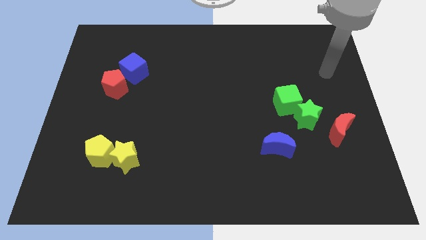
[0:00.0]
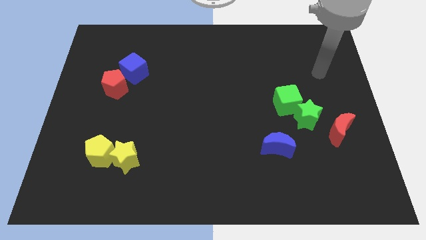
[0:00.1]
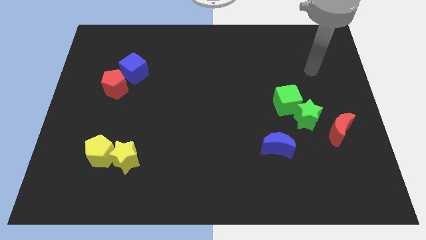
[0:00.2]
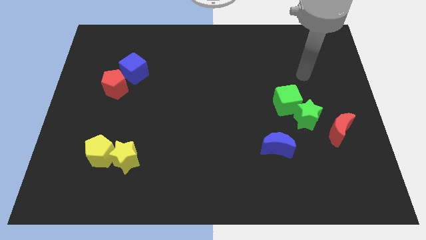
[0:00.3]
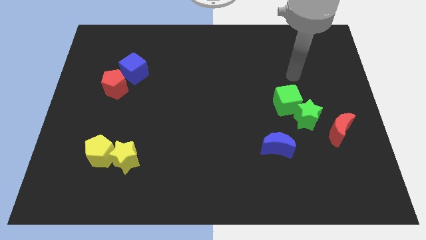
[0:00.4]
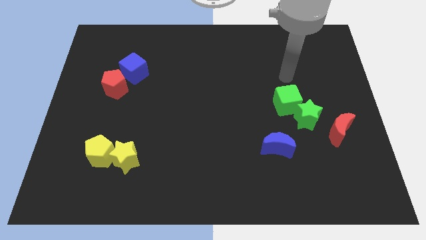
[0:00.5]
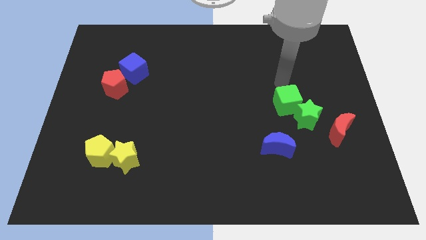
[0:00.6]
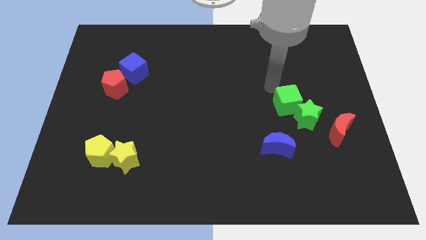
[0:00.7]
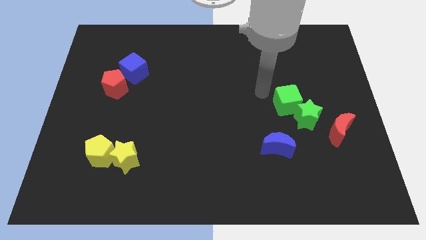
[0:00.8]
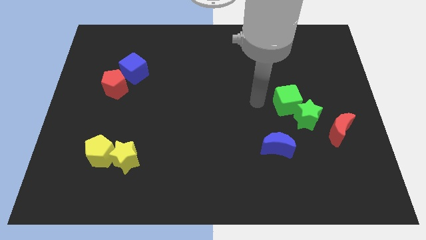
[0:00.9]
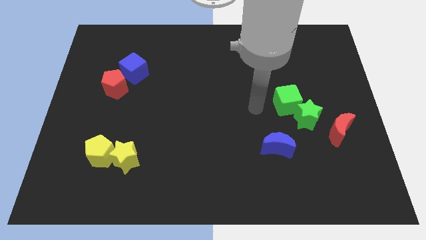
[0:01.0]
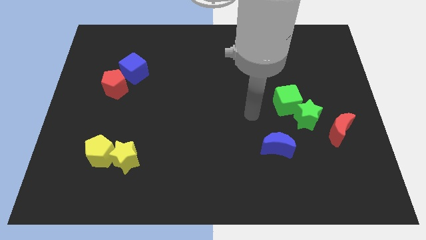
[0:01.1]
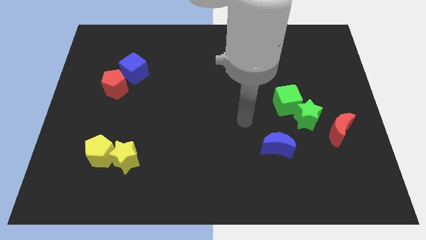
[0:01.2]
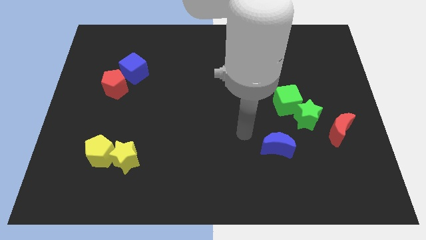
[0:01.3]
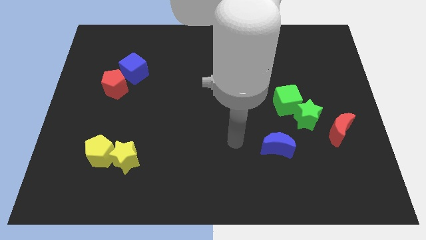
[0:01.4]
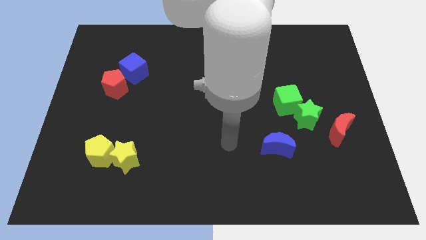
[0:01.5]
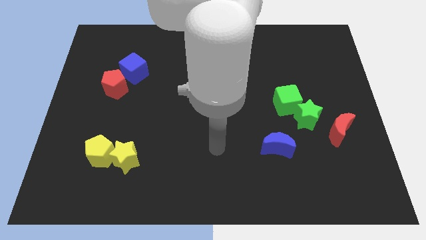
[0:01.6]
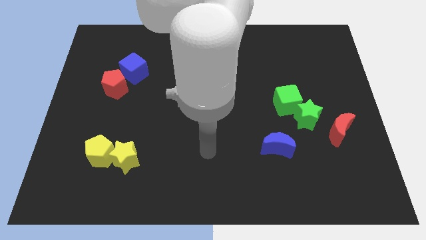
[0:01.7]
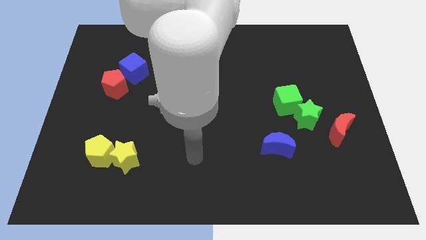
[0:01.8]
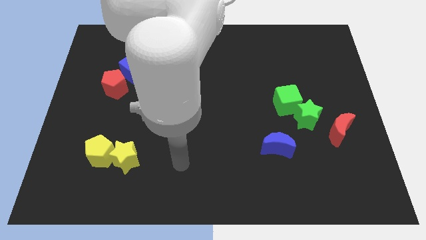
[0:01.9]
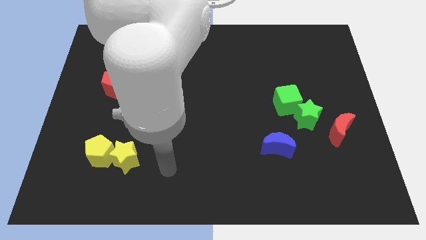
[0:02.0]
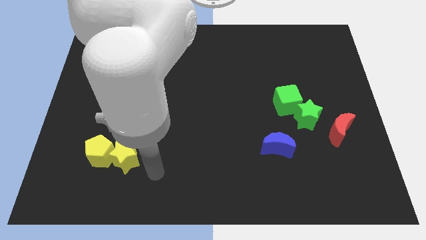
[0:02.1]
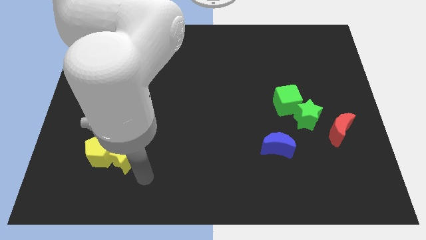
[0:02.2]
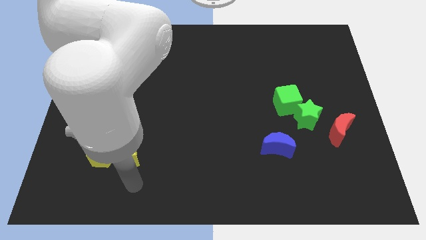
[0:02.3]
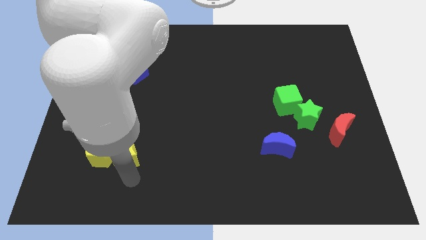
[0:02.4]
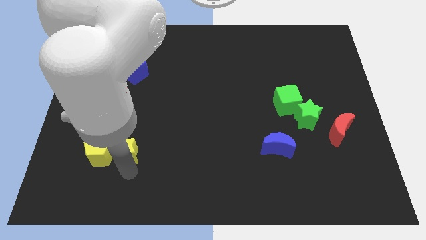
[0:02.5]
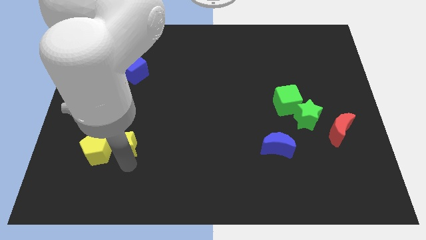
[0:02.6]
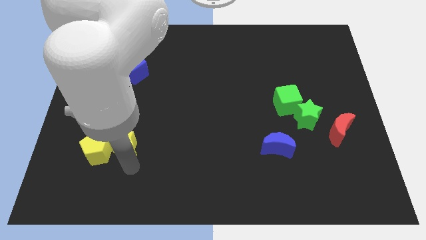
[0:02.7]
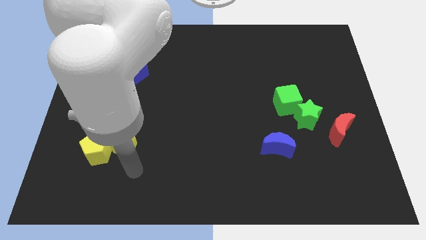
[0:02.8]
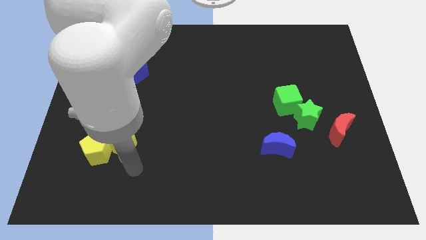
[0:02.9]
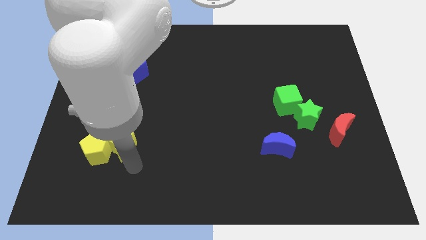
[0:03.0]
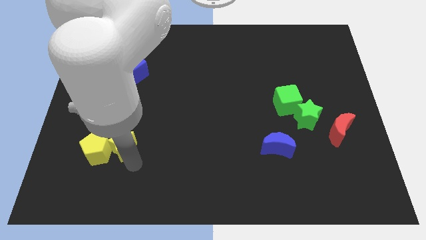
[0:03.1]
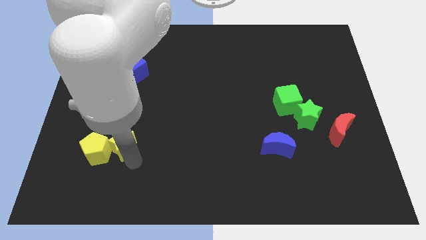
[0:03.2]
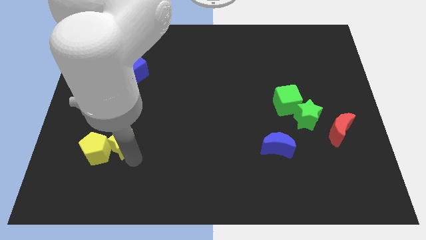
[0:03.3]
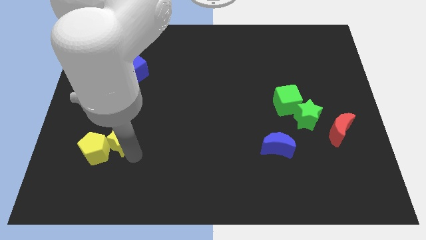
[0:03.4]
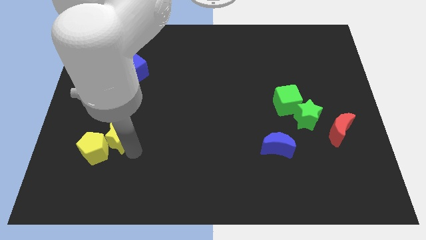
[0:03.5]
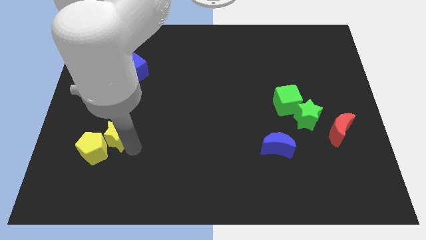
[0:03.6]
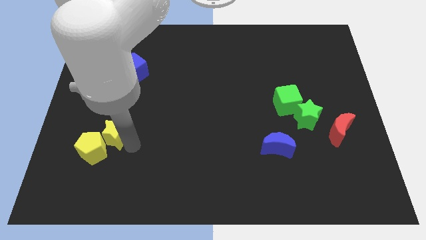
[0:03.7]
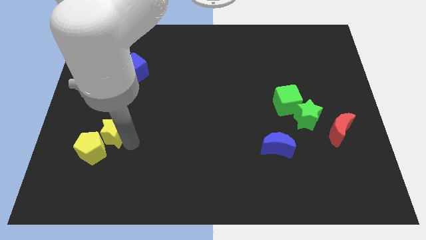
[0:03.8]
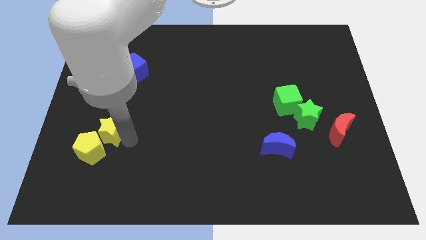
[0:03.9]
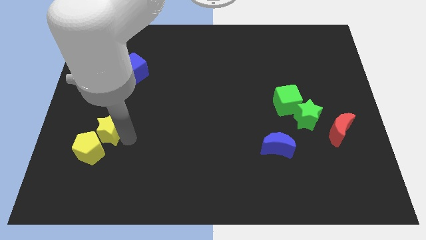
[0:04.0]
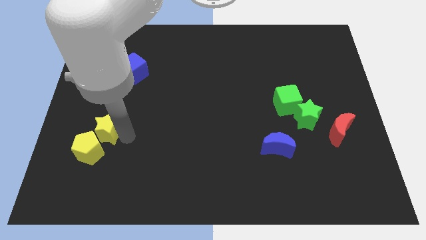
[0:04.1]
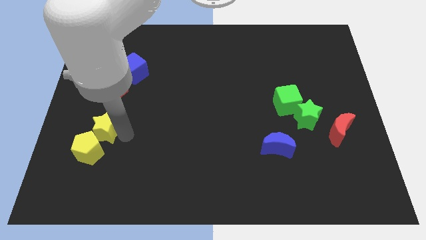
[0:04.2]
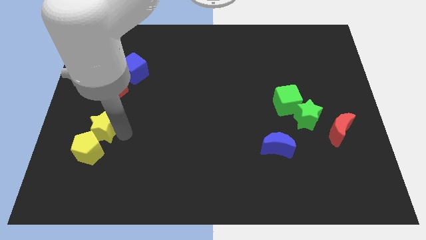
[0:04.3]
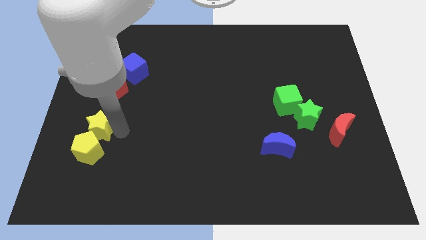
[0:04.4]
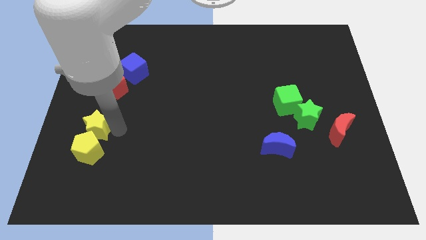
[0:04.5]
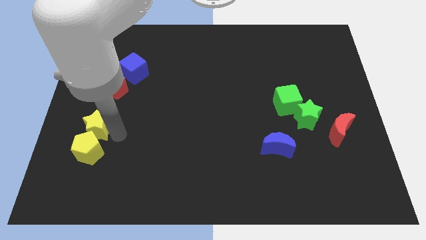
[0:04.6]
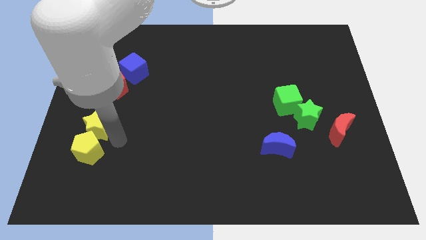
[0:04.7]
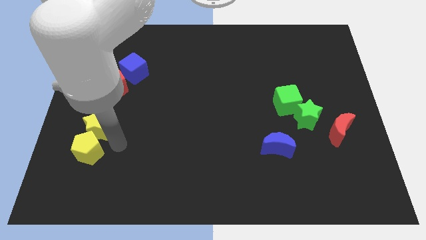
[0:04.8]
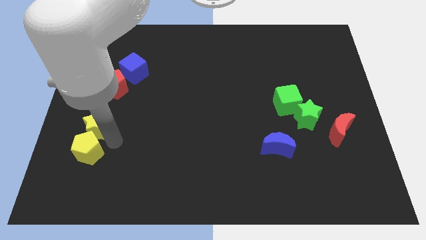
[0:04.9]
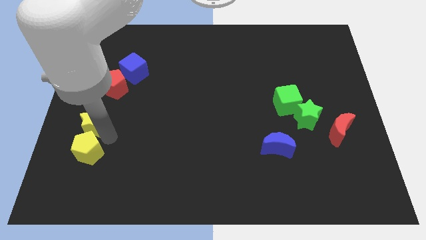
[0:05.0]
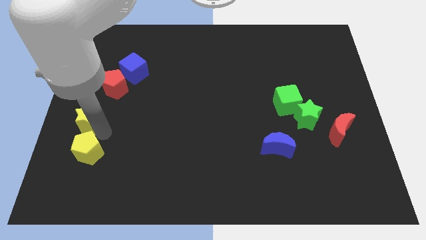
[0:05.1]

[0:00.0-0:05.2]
put the yellow star to the left side of the board

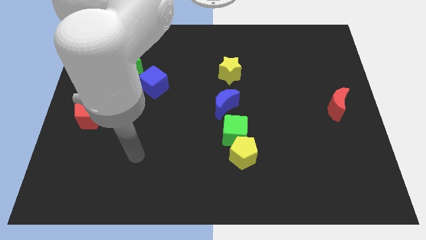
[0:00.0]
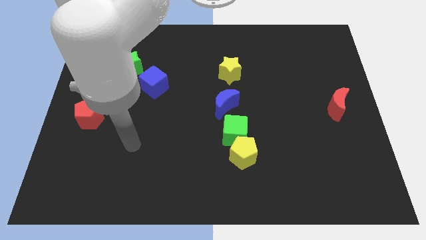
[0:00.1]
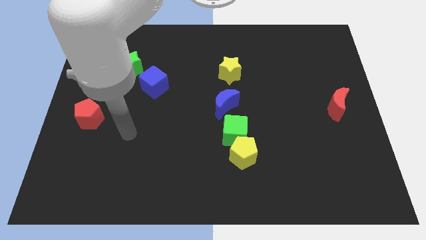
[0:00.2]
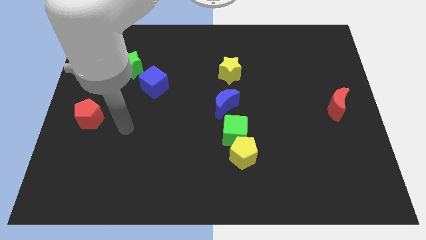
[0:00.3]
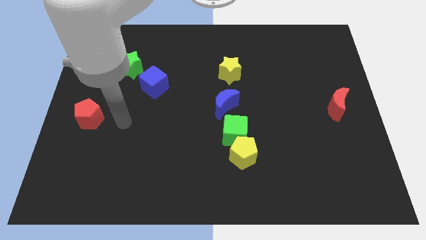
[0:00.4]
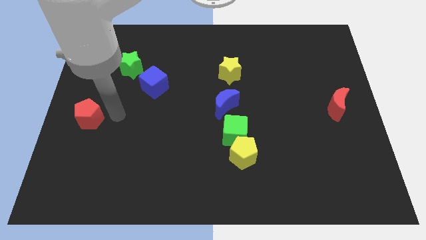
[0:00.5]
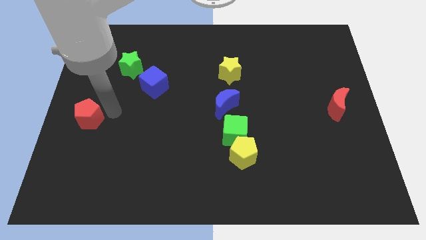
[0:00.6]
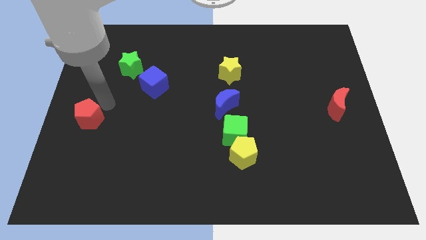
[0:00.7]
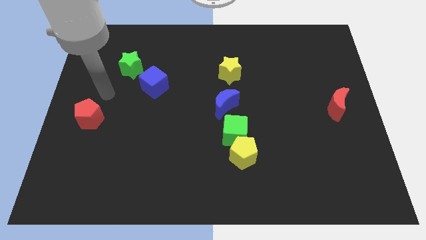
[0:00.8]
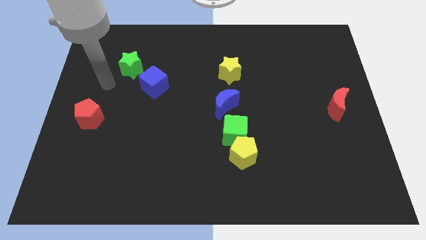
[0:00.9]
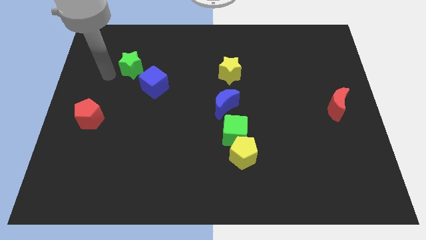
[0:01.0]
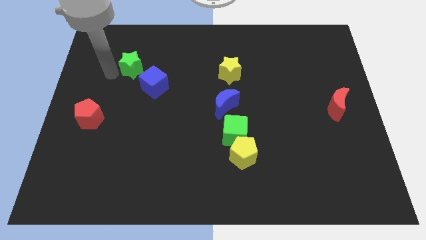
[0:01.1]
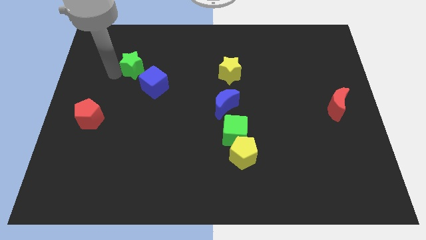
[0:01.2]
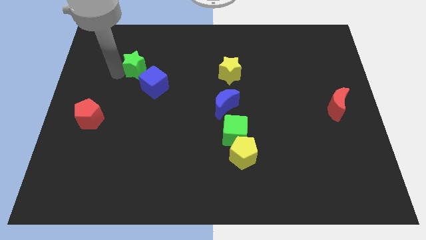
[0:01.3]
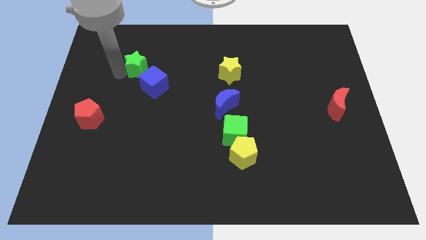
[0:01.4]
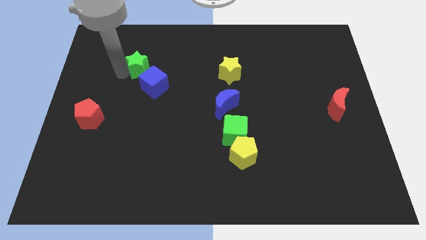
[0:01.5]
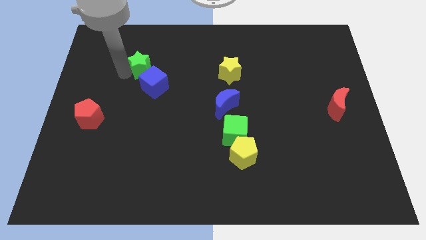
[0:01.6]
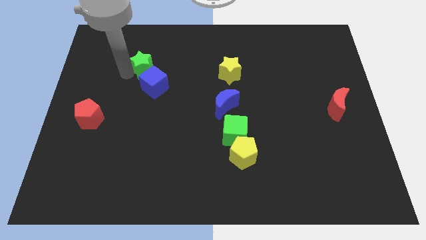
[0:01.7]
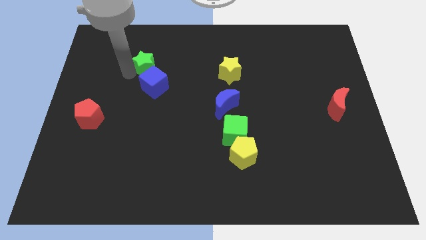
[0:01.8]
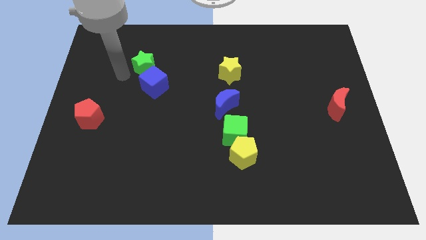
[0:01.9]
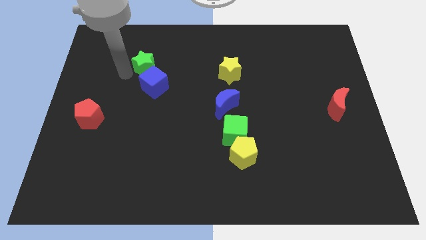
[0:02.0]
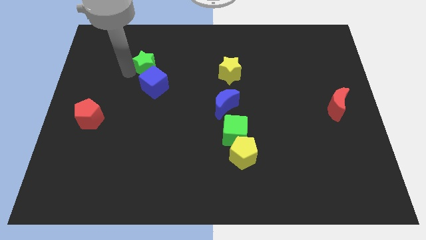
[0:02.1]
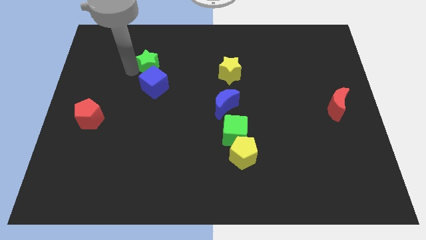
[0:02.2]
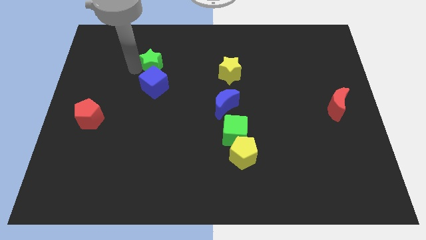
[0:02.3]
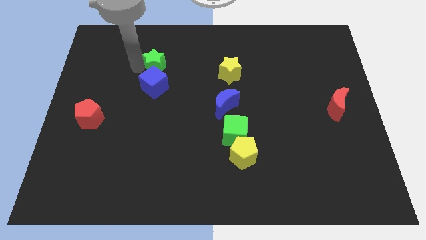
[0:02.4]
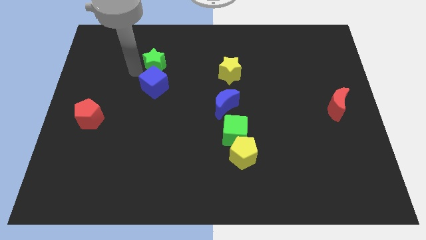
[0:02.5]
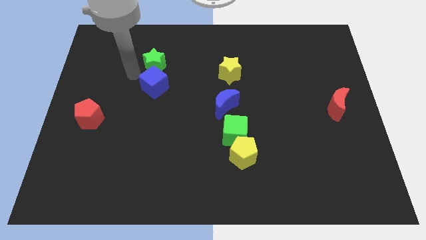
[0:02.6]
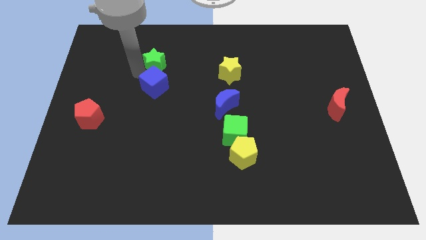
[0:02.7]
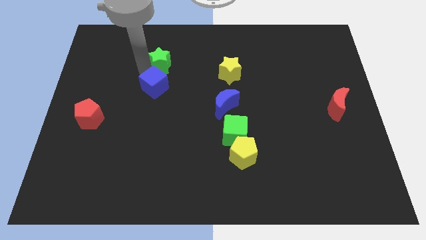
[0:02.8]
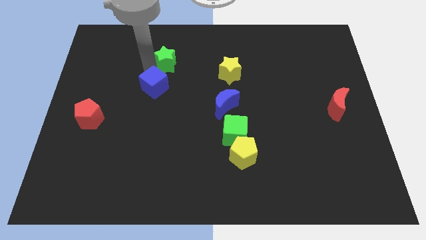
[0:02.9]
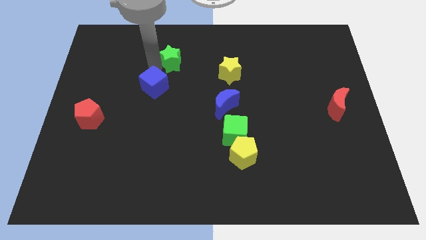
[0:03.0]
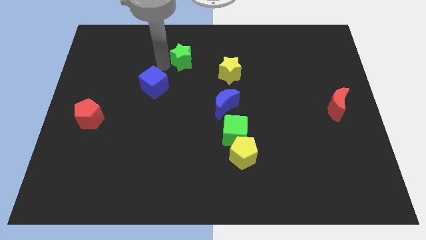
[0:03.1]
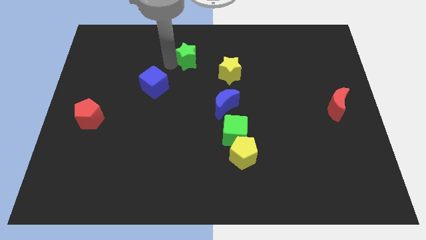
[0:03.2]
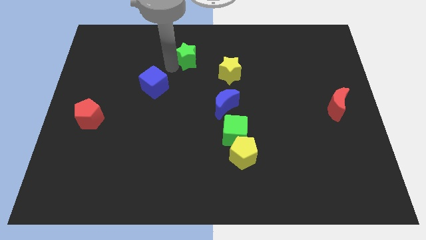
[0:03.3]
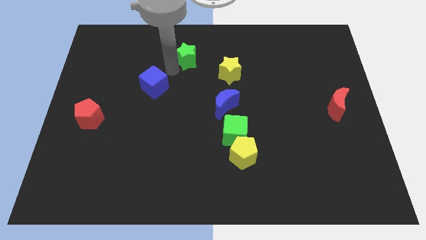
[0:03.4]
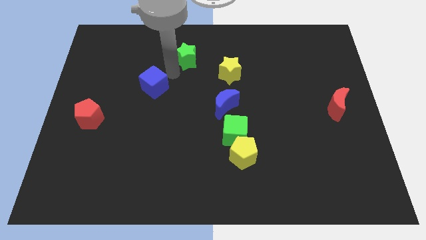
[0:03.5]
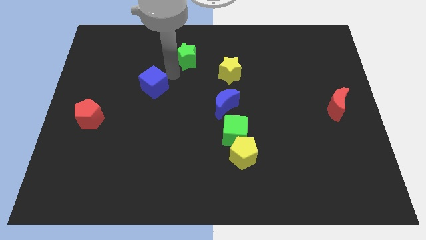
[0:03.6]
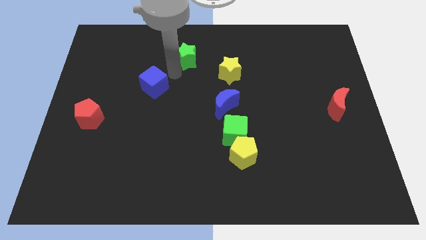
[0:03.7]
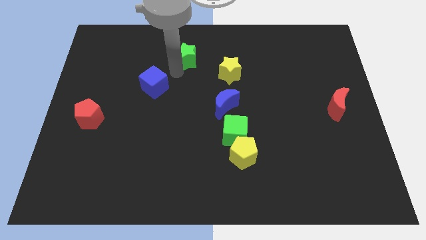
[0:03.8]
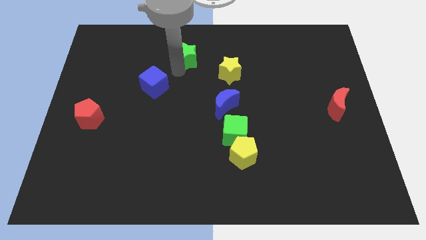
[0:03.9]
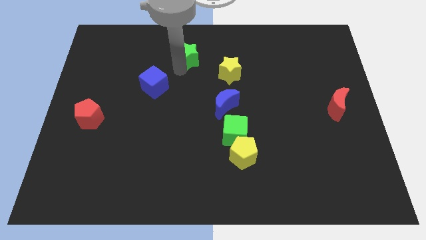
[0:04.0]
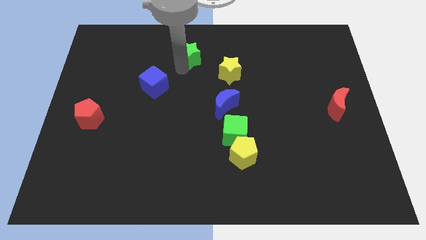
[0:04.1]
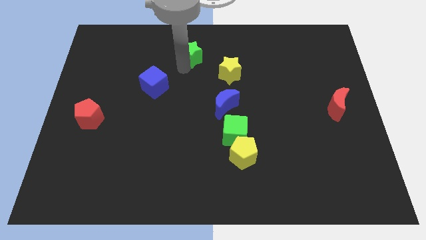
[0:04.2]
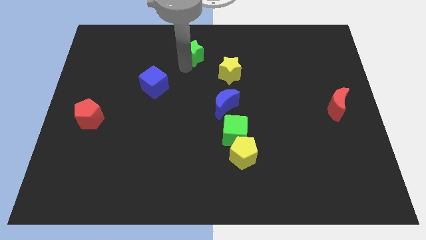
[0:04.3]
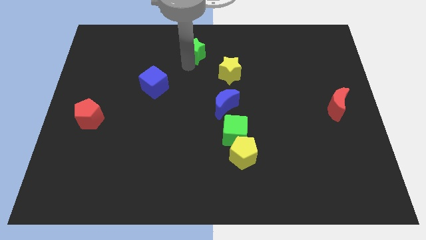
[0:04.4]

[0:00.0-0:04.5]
slide the green star to the top side
